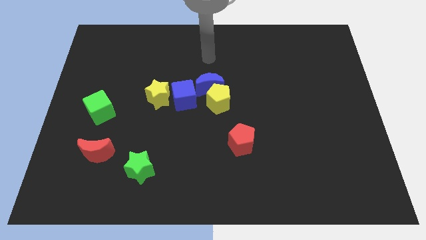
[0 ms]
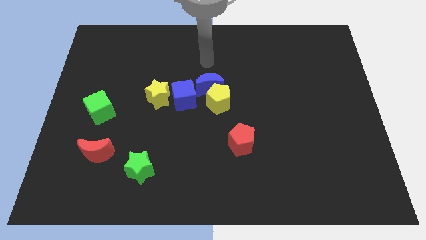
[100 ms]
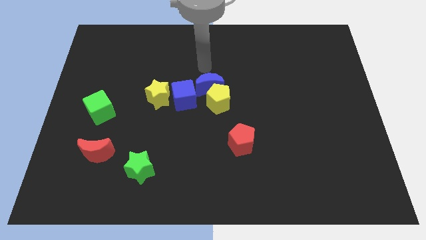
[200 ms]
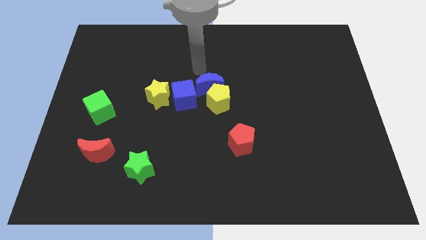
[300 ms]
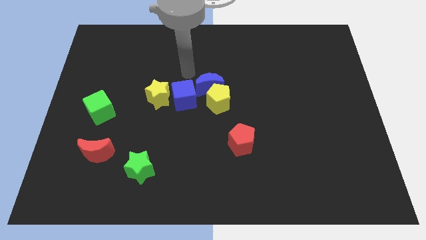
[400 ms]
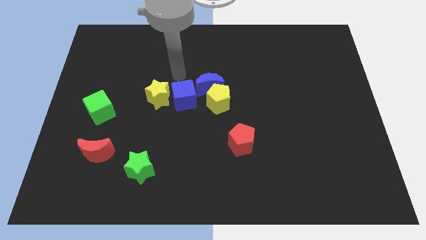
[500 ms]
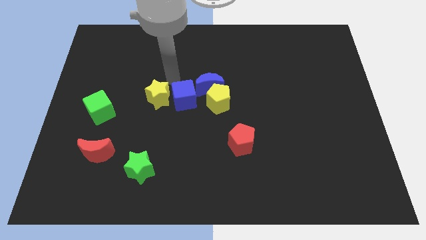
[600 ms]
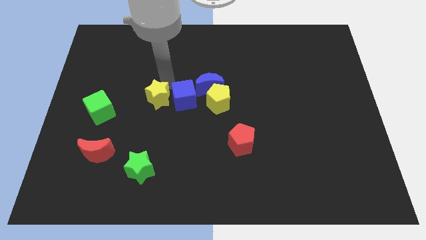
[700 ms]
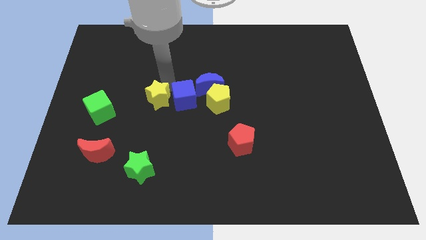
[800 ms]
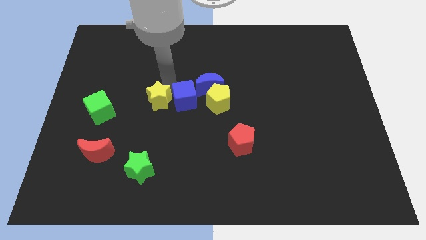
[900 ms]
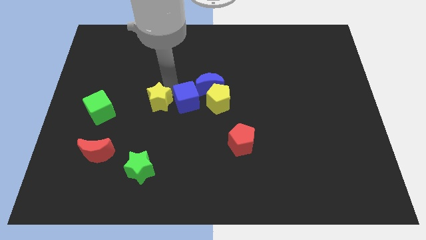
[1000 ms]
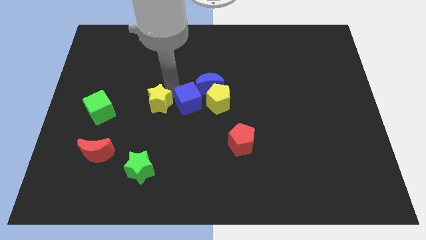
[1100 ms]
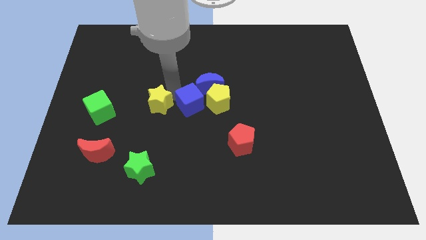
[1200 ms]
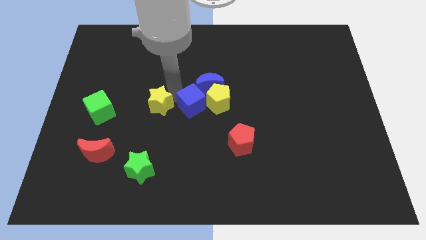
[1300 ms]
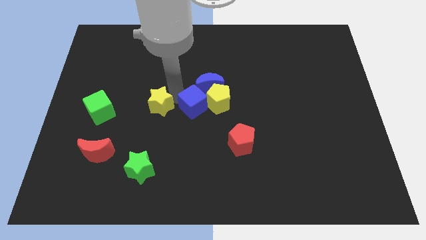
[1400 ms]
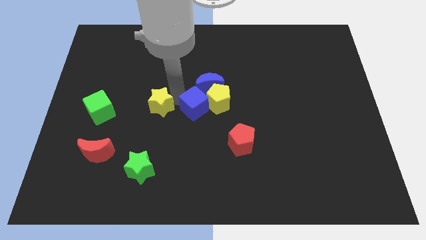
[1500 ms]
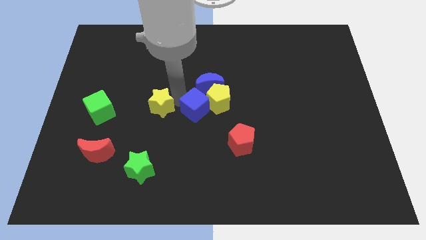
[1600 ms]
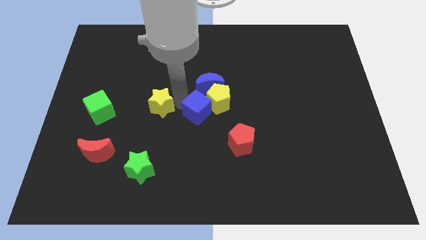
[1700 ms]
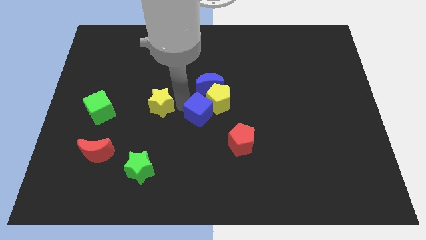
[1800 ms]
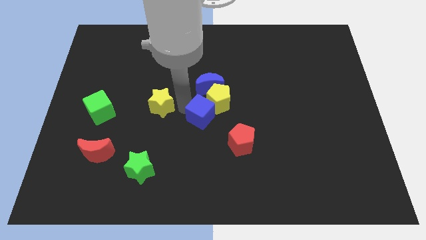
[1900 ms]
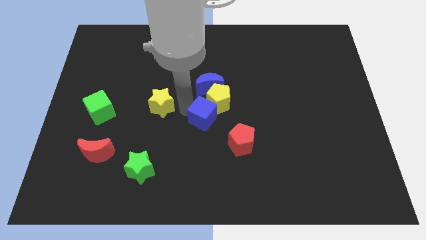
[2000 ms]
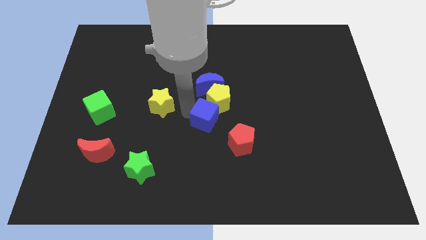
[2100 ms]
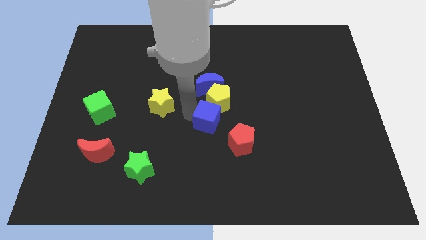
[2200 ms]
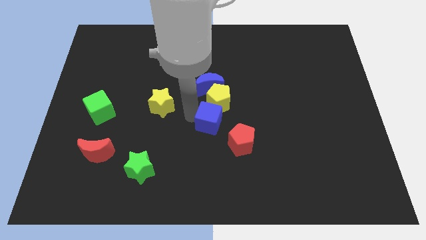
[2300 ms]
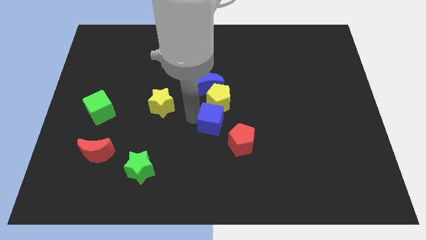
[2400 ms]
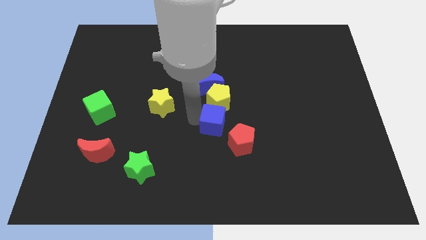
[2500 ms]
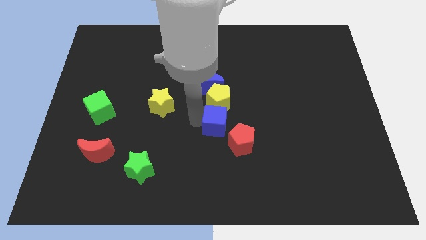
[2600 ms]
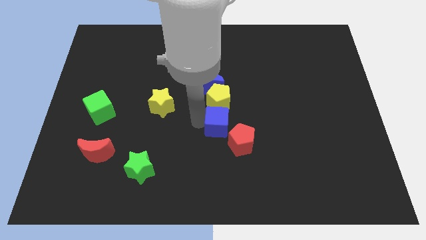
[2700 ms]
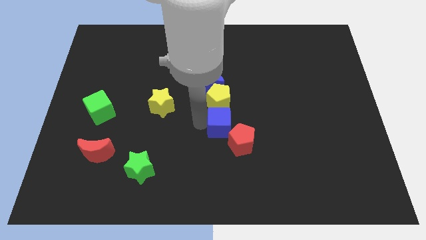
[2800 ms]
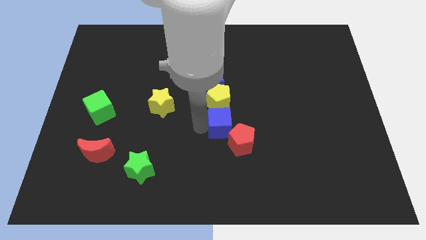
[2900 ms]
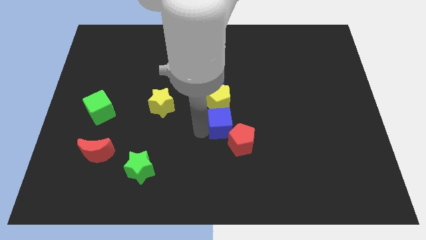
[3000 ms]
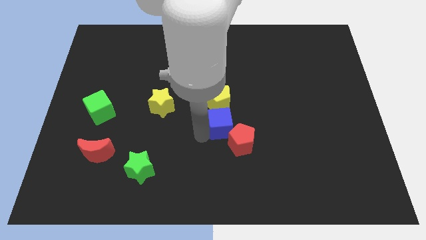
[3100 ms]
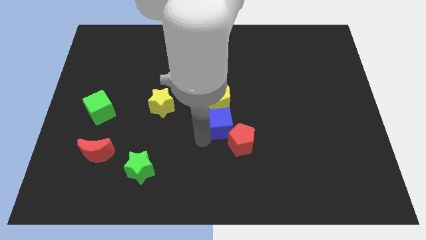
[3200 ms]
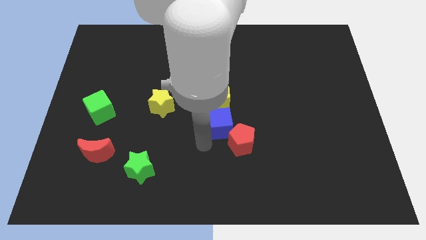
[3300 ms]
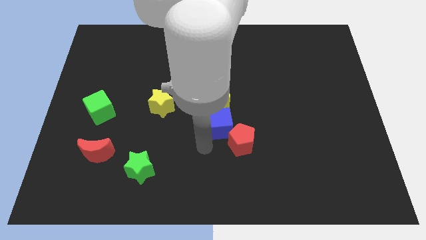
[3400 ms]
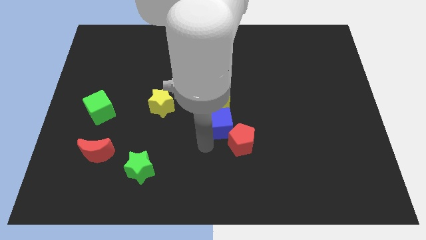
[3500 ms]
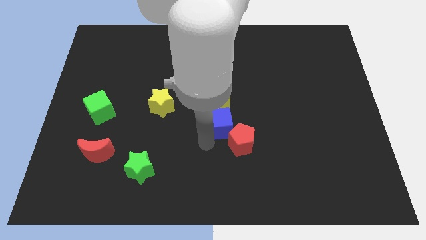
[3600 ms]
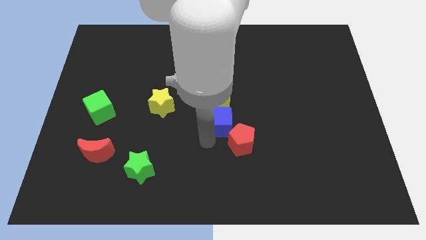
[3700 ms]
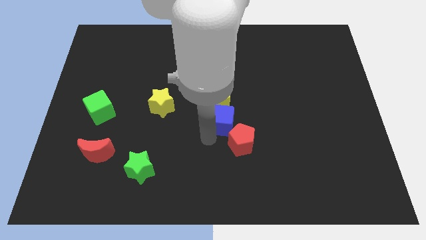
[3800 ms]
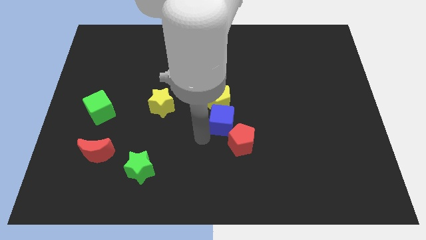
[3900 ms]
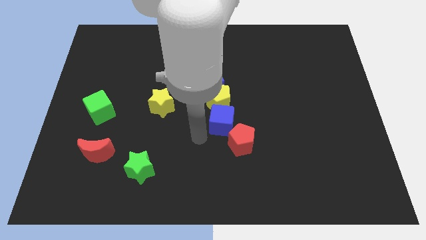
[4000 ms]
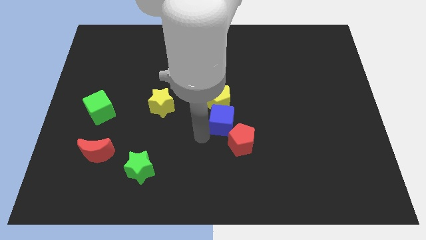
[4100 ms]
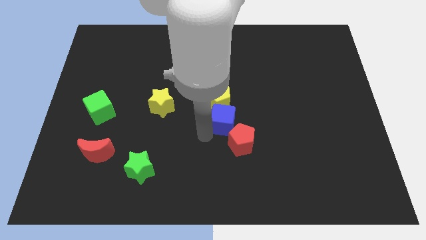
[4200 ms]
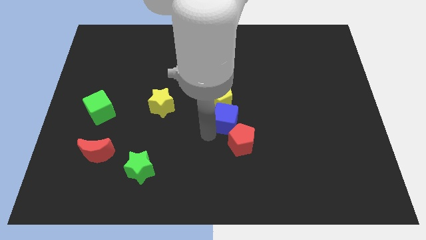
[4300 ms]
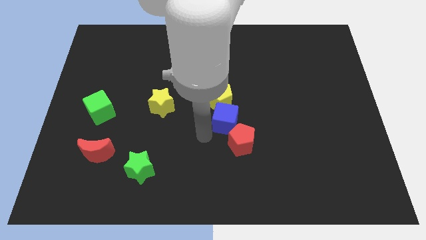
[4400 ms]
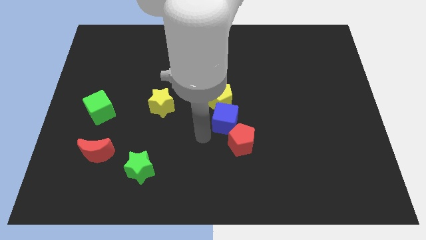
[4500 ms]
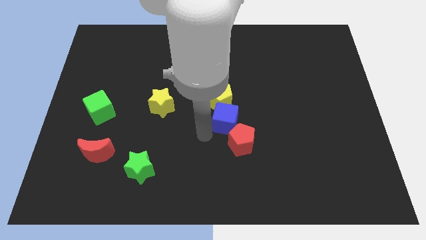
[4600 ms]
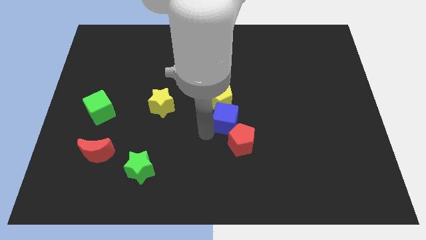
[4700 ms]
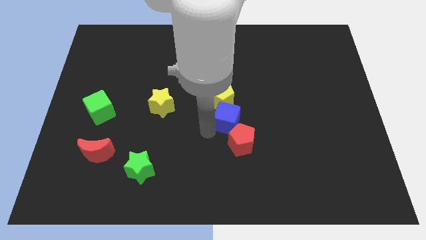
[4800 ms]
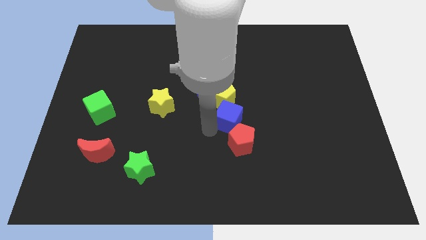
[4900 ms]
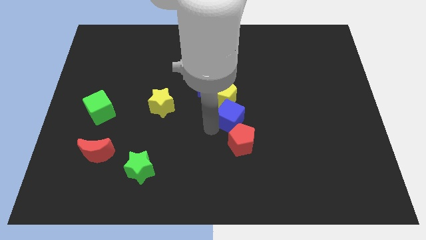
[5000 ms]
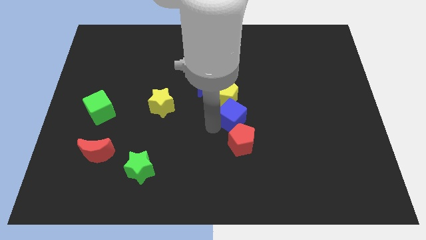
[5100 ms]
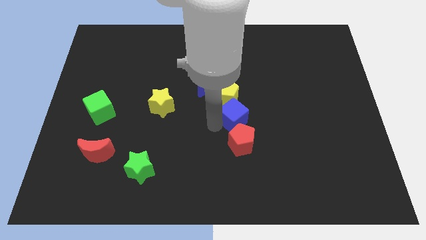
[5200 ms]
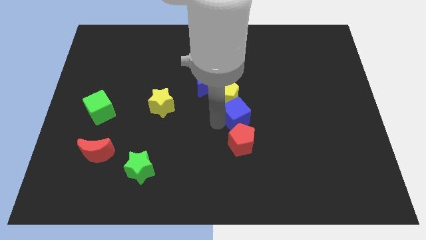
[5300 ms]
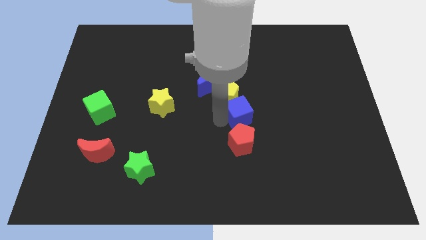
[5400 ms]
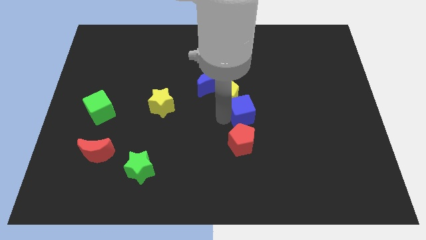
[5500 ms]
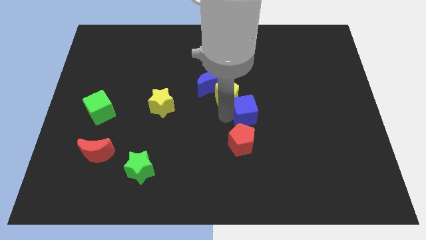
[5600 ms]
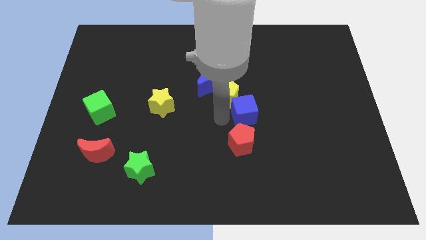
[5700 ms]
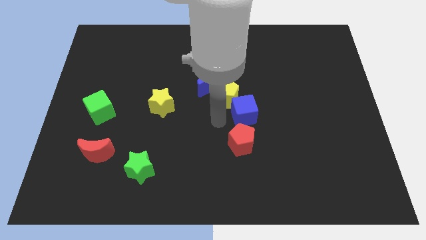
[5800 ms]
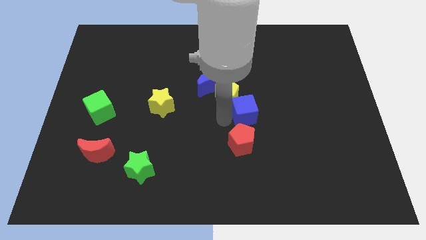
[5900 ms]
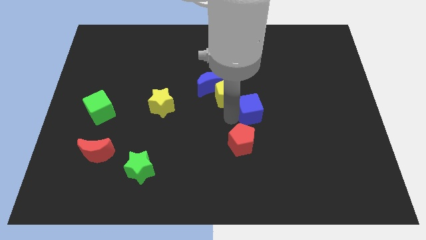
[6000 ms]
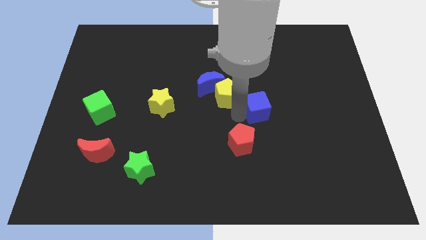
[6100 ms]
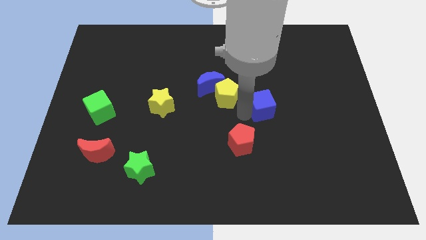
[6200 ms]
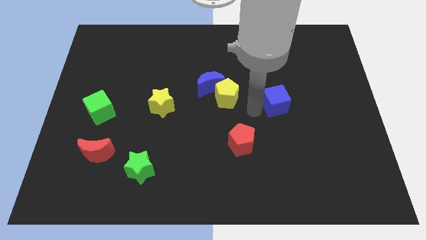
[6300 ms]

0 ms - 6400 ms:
slide the blue cube right

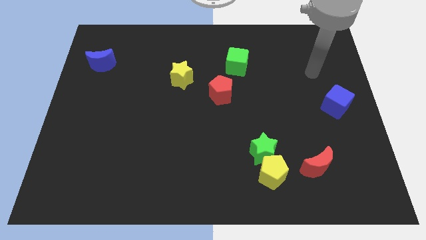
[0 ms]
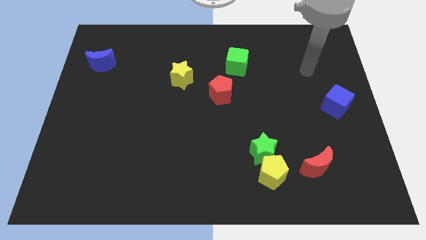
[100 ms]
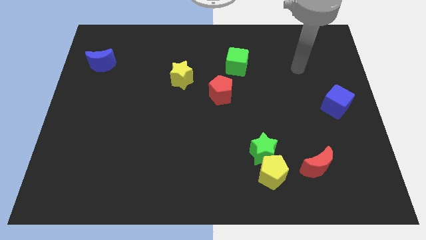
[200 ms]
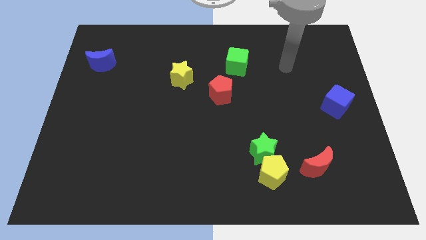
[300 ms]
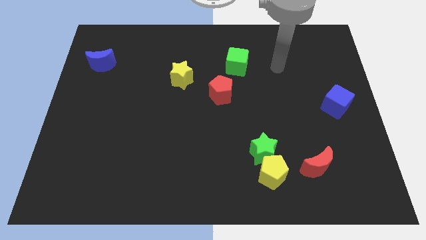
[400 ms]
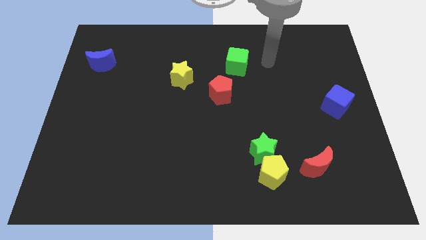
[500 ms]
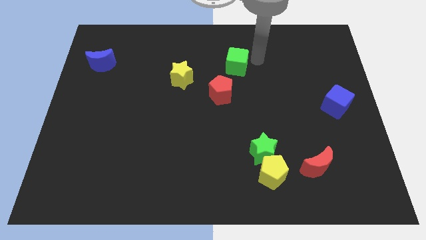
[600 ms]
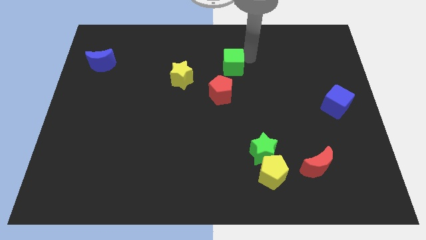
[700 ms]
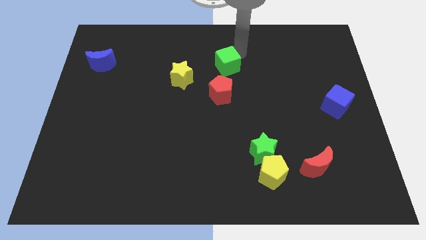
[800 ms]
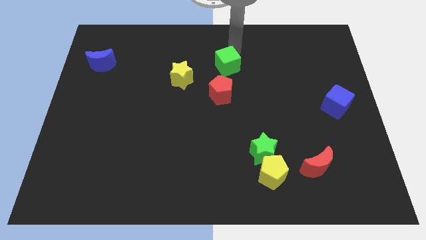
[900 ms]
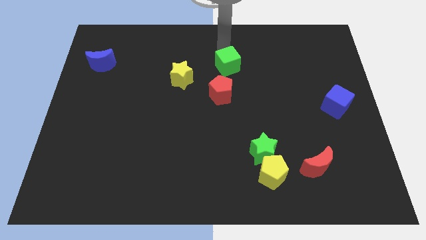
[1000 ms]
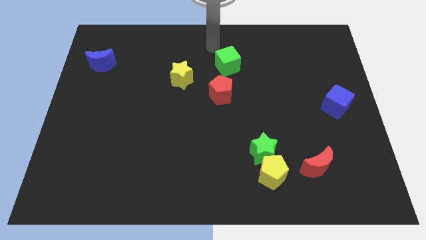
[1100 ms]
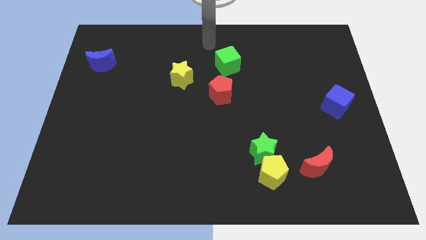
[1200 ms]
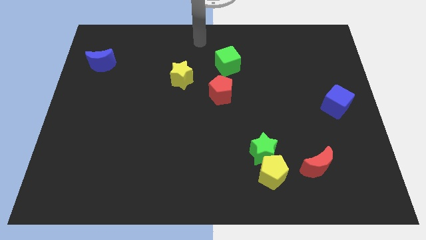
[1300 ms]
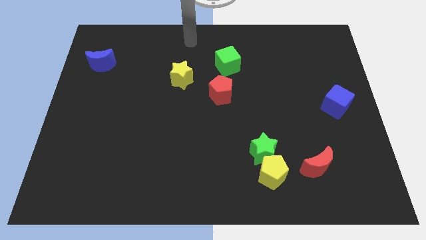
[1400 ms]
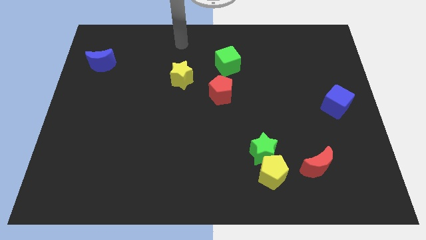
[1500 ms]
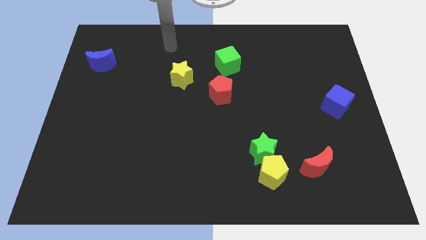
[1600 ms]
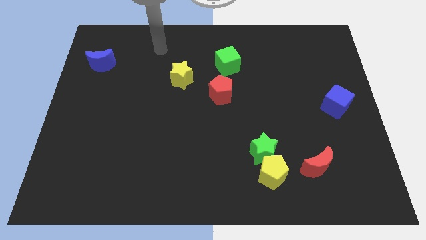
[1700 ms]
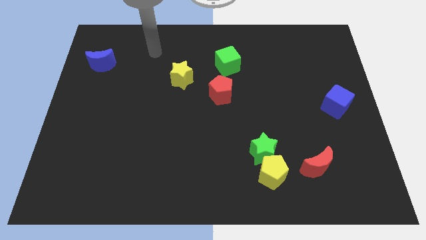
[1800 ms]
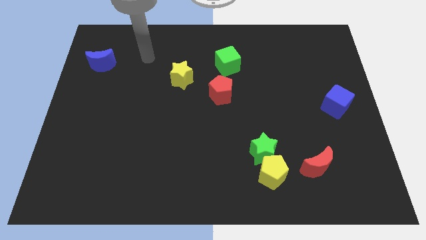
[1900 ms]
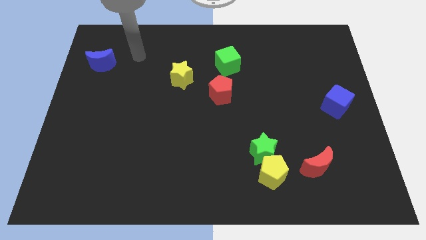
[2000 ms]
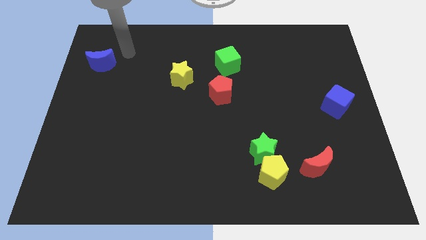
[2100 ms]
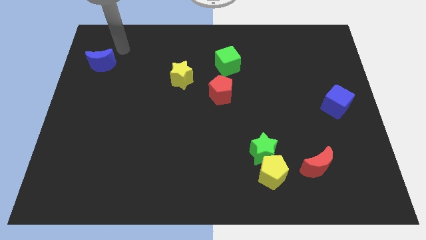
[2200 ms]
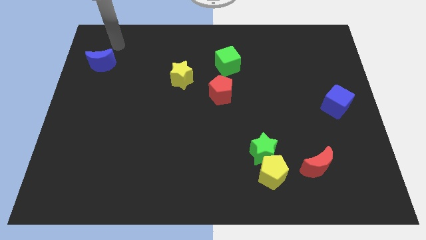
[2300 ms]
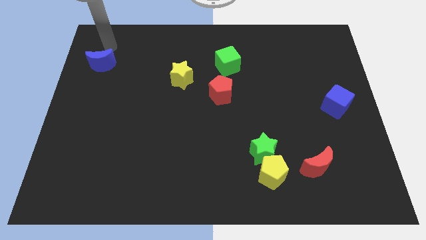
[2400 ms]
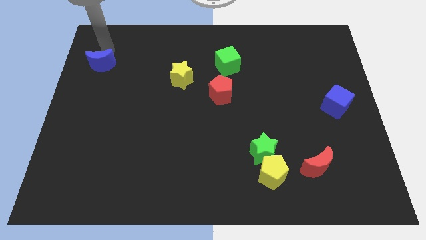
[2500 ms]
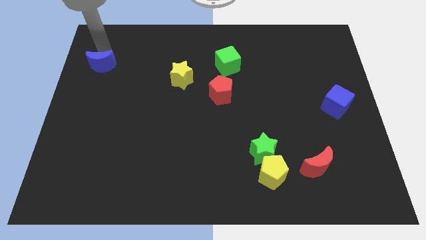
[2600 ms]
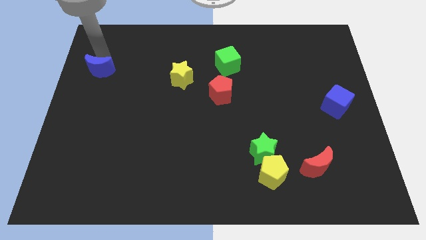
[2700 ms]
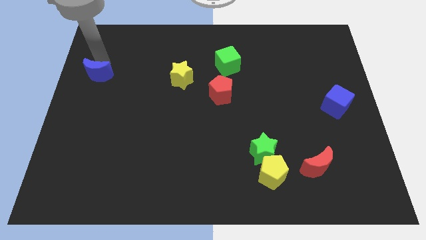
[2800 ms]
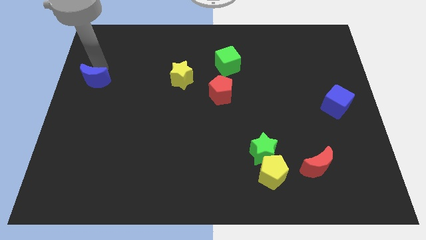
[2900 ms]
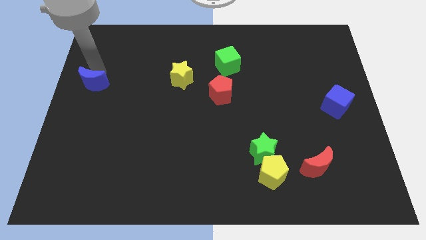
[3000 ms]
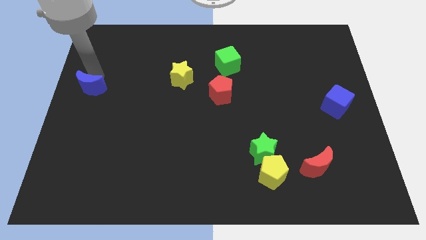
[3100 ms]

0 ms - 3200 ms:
push the blue moon a bit downwards
